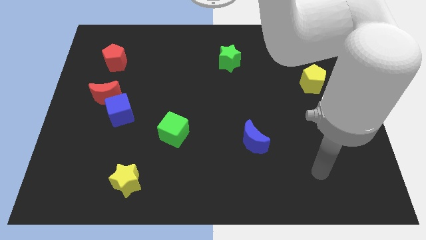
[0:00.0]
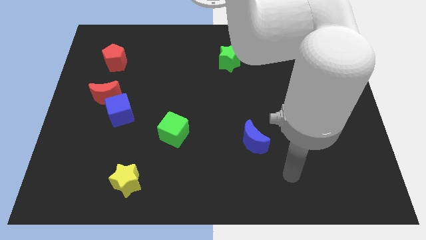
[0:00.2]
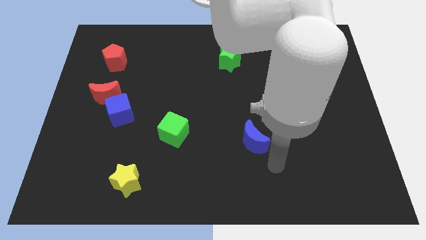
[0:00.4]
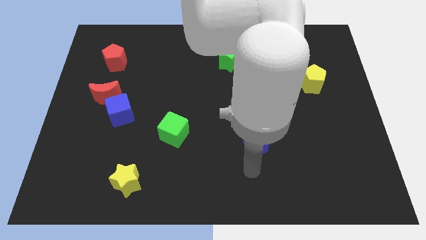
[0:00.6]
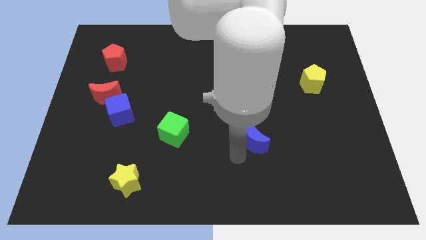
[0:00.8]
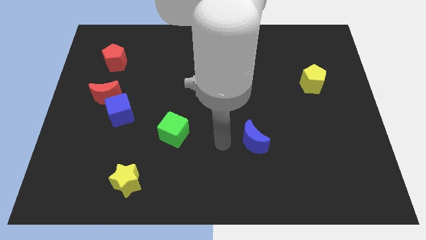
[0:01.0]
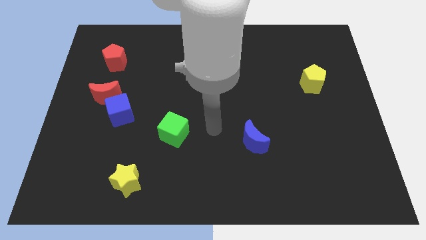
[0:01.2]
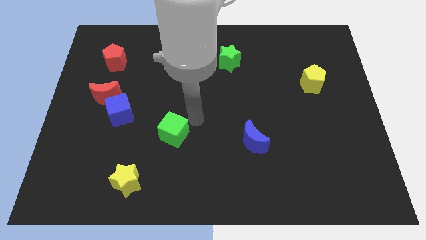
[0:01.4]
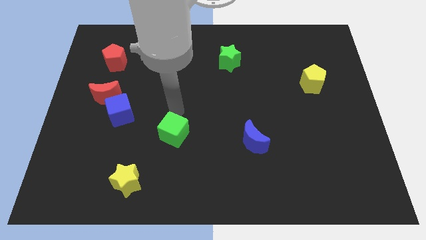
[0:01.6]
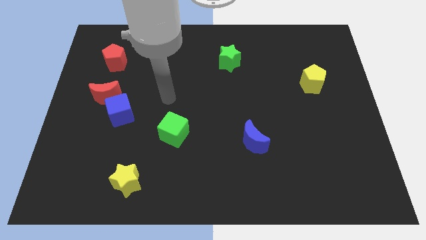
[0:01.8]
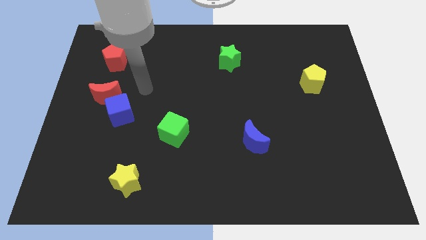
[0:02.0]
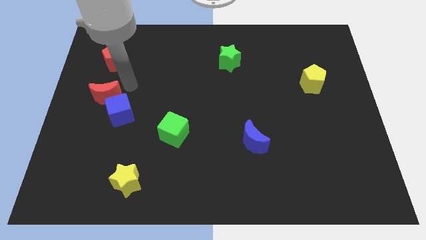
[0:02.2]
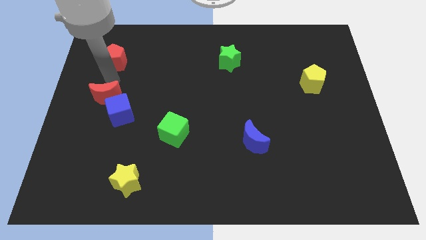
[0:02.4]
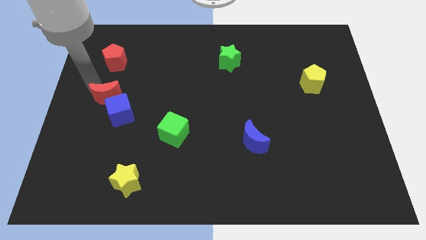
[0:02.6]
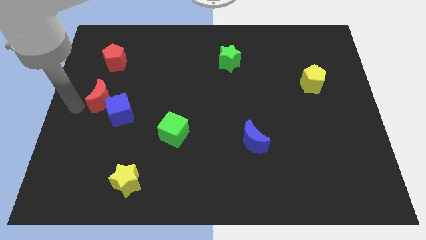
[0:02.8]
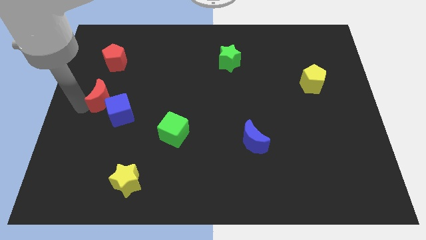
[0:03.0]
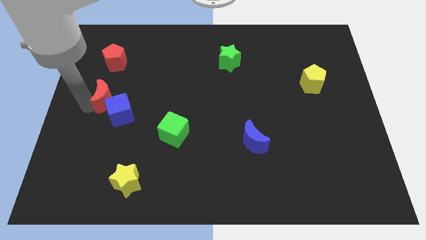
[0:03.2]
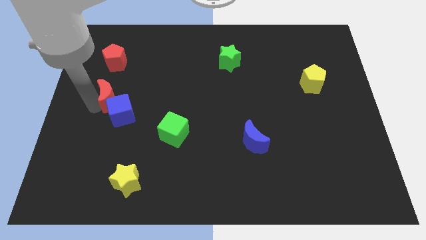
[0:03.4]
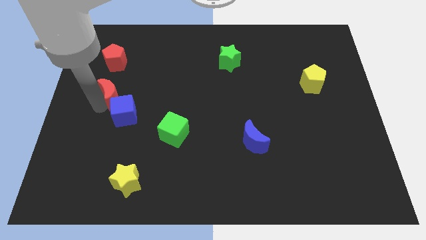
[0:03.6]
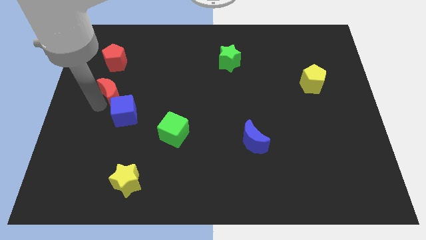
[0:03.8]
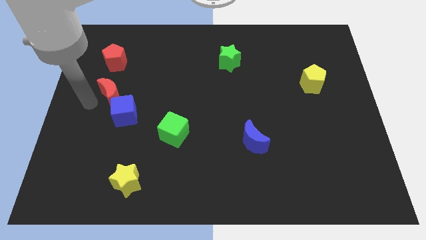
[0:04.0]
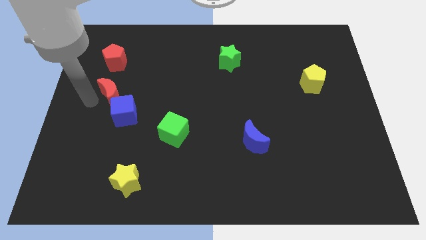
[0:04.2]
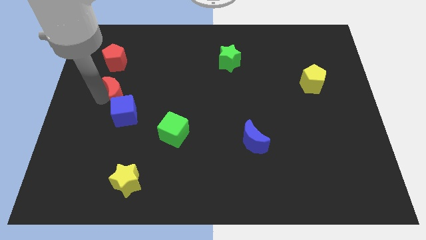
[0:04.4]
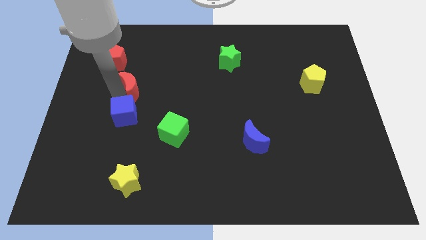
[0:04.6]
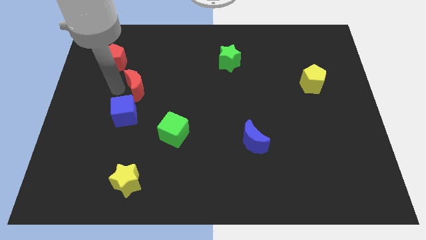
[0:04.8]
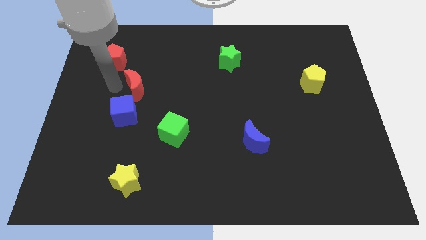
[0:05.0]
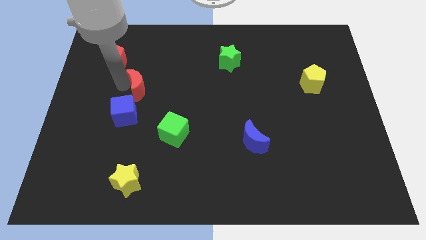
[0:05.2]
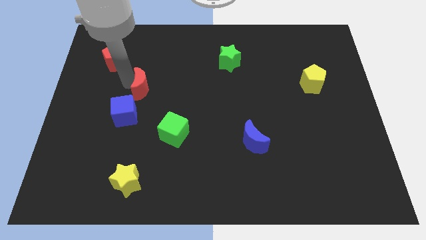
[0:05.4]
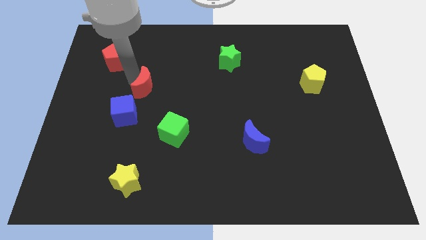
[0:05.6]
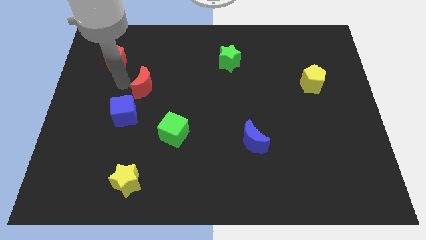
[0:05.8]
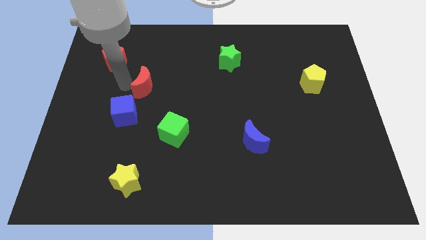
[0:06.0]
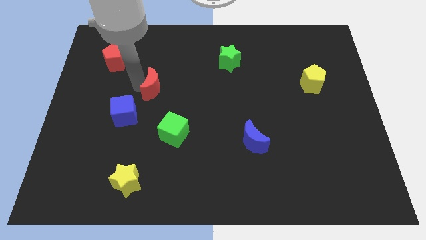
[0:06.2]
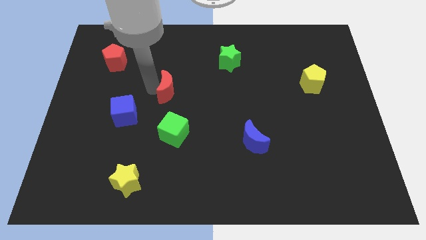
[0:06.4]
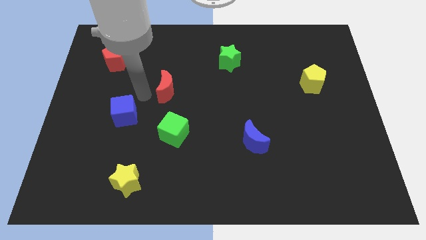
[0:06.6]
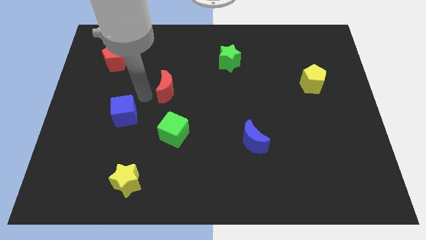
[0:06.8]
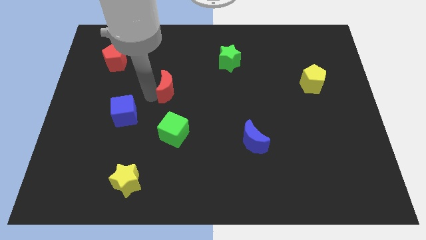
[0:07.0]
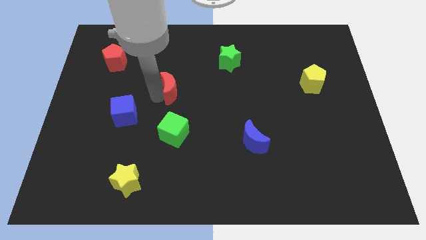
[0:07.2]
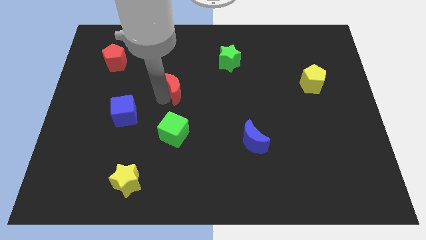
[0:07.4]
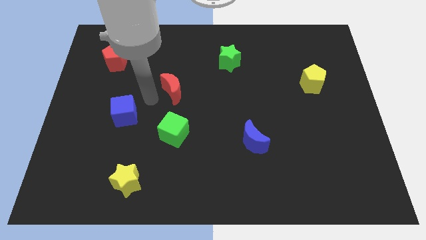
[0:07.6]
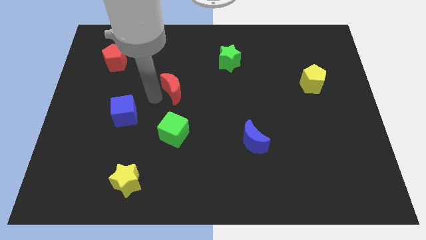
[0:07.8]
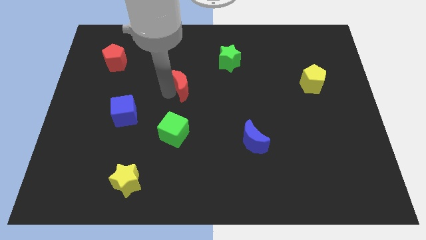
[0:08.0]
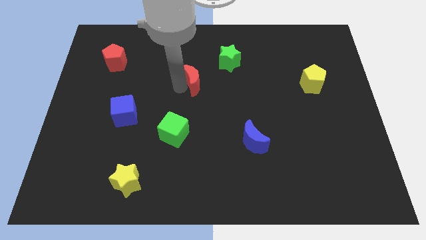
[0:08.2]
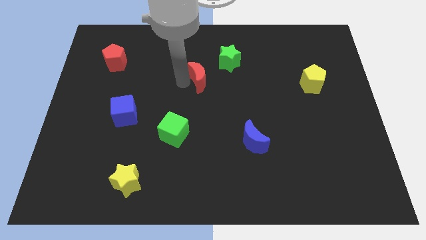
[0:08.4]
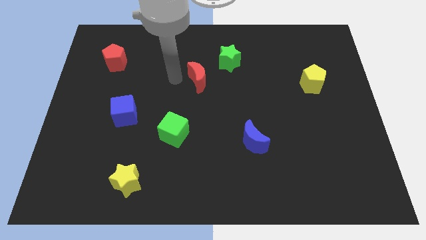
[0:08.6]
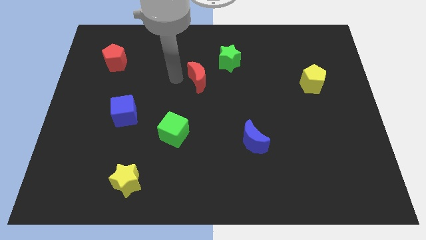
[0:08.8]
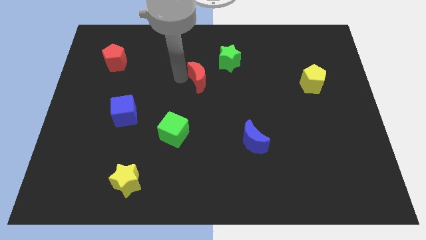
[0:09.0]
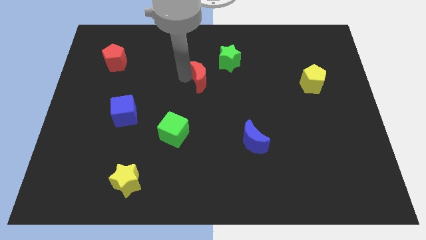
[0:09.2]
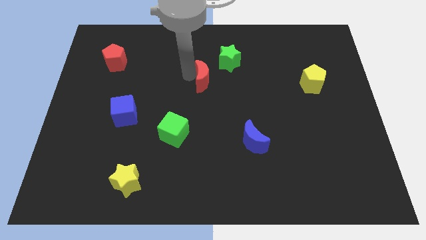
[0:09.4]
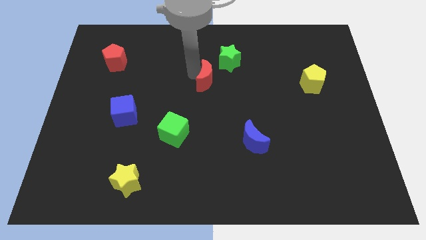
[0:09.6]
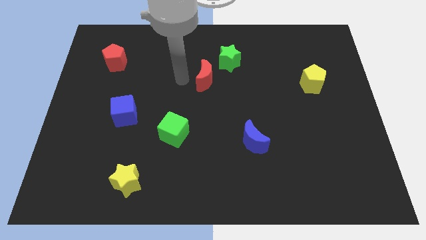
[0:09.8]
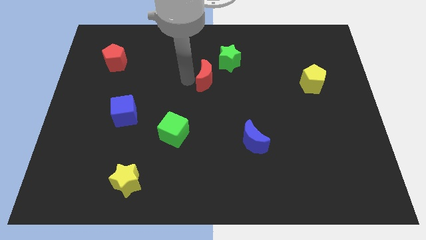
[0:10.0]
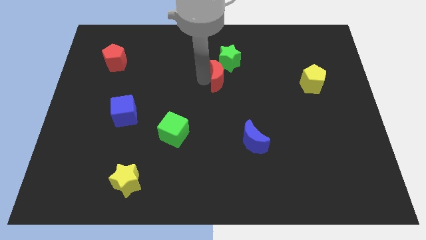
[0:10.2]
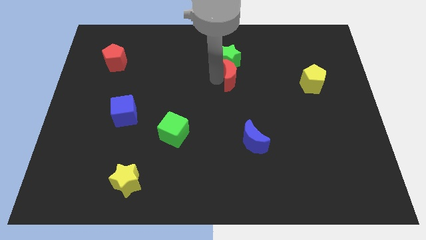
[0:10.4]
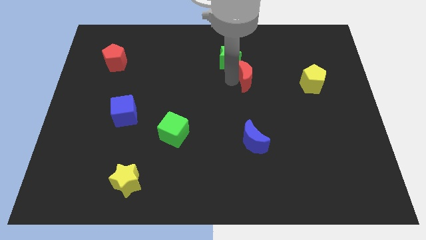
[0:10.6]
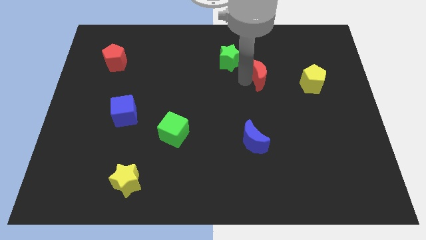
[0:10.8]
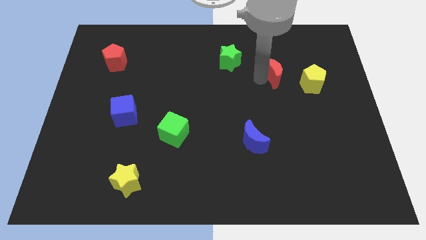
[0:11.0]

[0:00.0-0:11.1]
put the red moon to the top left side of the yellow pentagon
